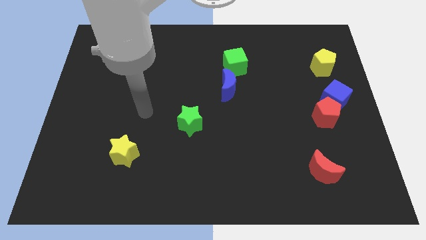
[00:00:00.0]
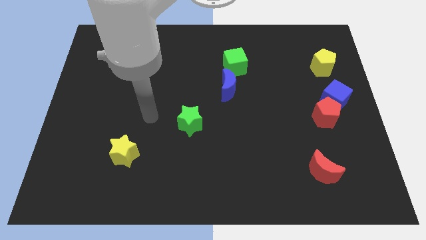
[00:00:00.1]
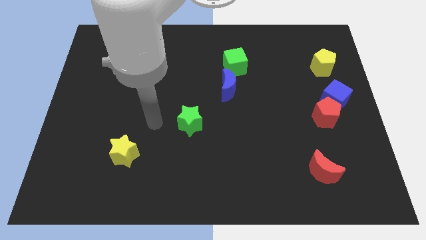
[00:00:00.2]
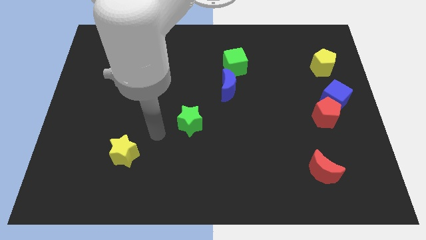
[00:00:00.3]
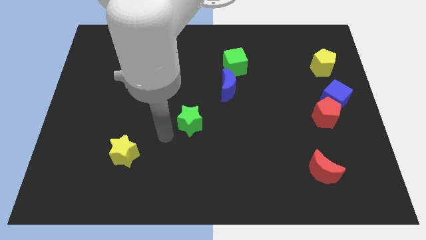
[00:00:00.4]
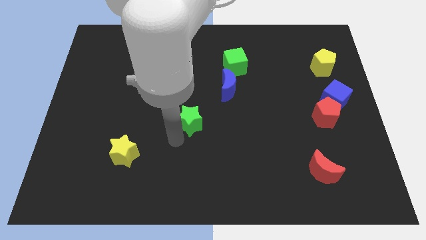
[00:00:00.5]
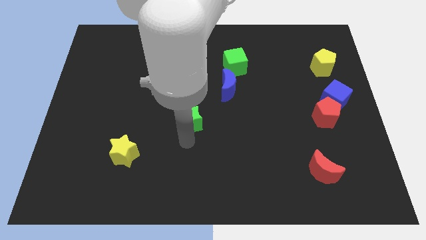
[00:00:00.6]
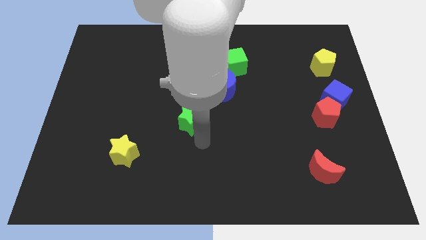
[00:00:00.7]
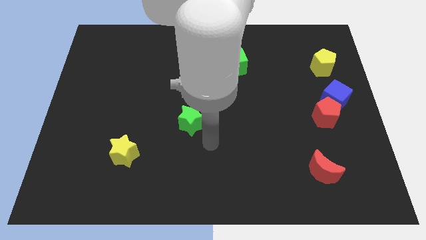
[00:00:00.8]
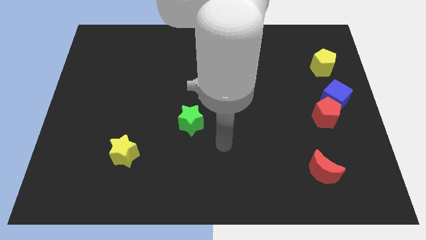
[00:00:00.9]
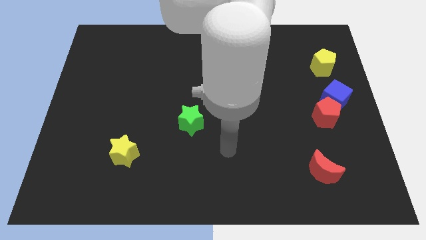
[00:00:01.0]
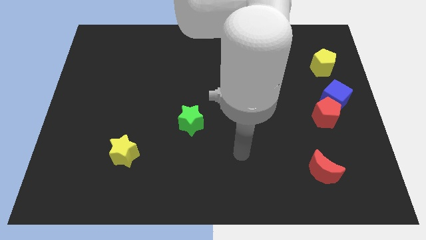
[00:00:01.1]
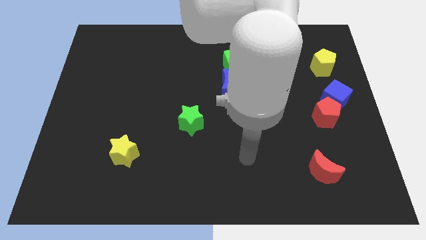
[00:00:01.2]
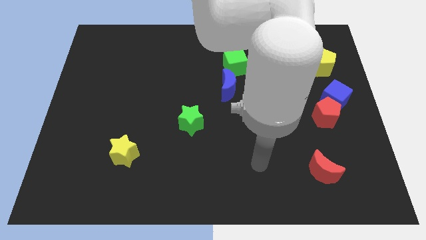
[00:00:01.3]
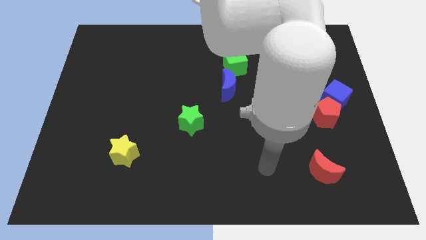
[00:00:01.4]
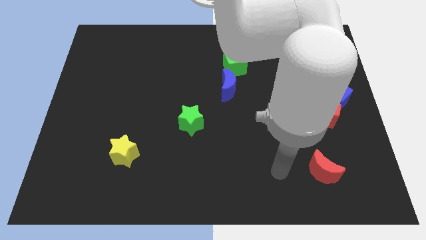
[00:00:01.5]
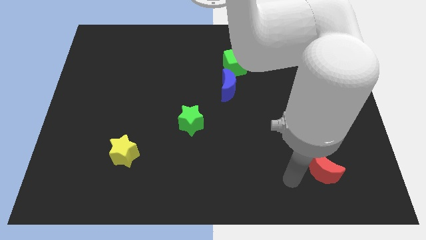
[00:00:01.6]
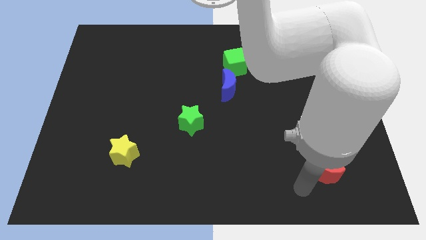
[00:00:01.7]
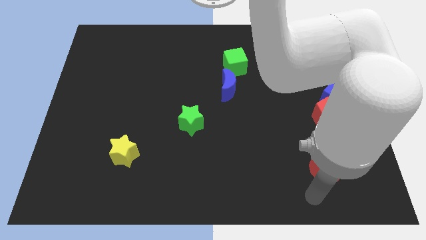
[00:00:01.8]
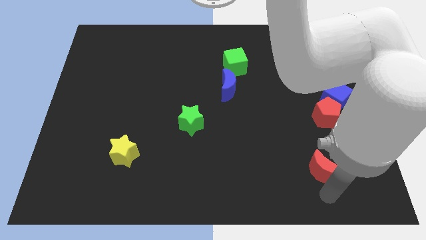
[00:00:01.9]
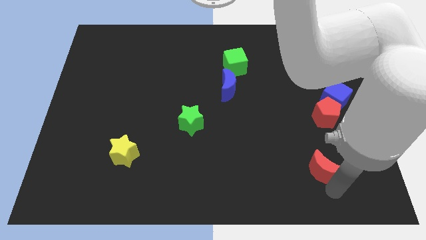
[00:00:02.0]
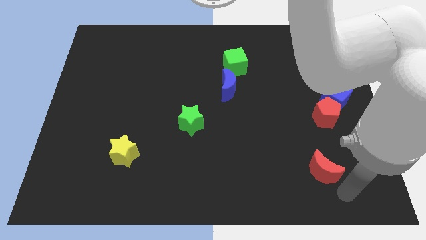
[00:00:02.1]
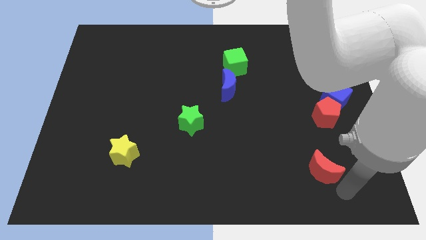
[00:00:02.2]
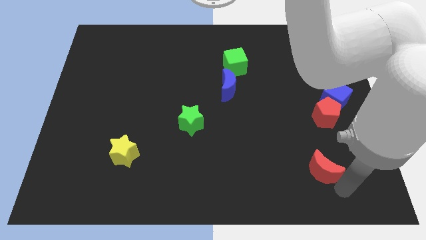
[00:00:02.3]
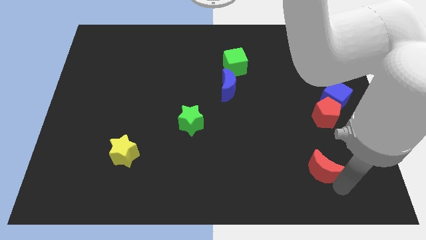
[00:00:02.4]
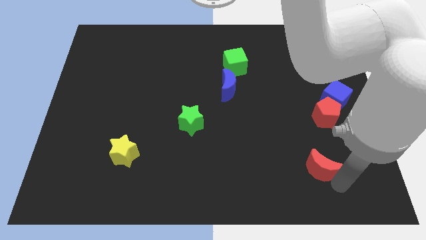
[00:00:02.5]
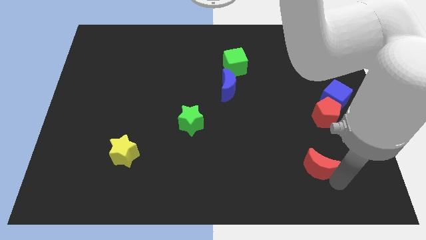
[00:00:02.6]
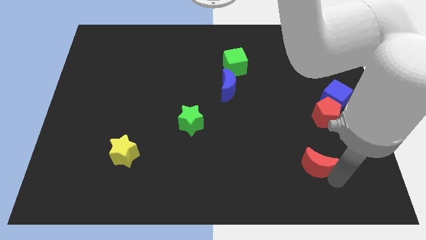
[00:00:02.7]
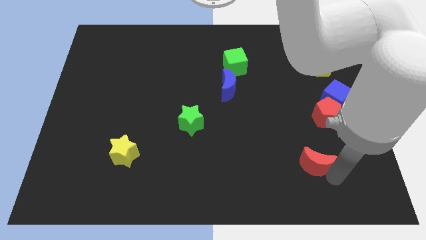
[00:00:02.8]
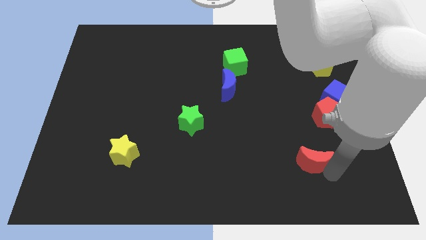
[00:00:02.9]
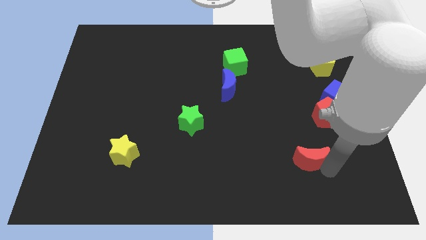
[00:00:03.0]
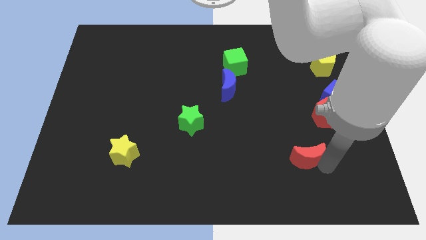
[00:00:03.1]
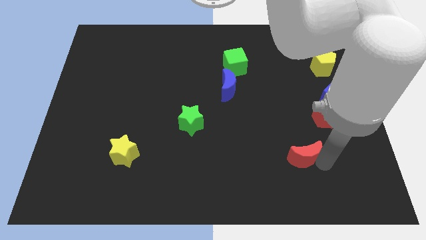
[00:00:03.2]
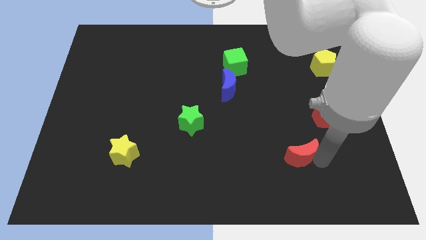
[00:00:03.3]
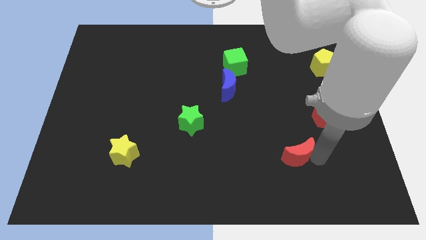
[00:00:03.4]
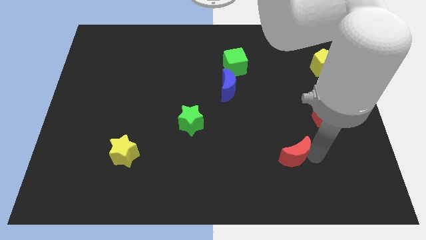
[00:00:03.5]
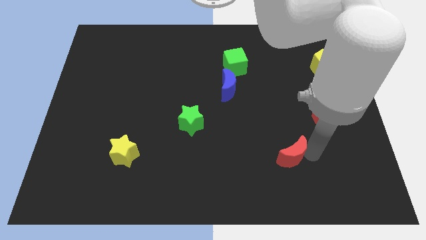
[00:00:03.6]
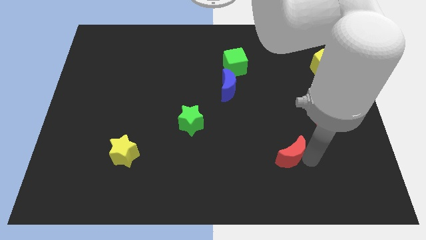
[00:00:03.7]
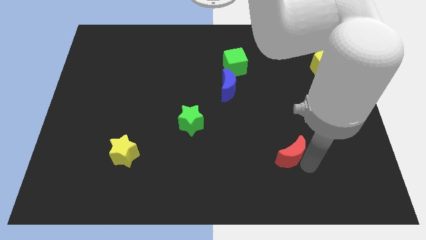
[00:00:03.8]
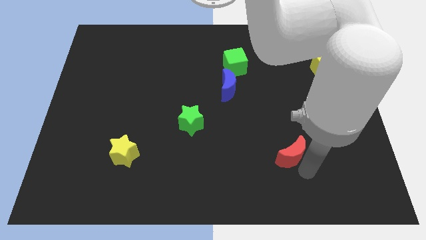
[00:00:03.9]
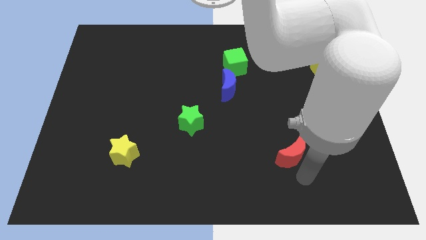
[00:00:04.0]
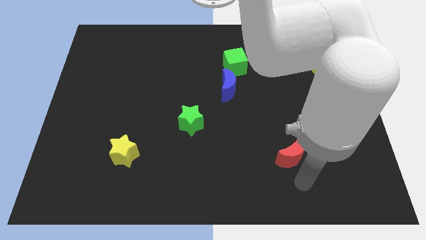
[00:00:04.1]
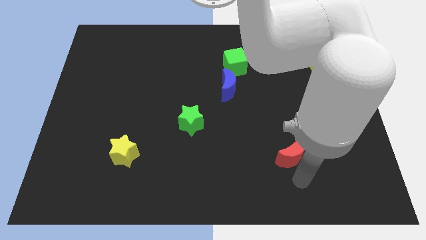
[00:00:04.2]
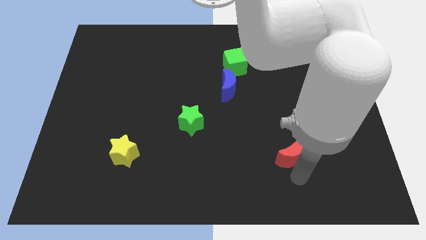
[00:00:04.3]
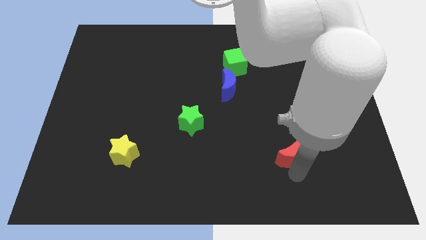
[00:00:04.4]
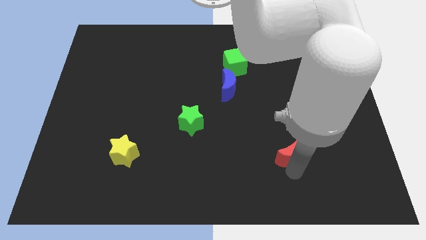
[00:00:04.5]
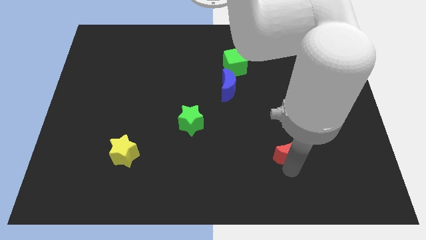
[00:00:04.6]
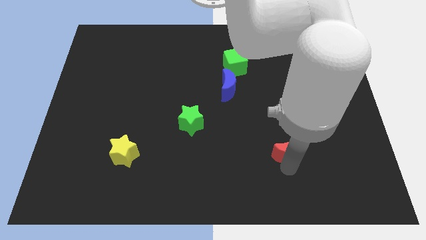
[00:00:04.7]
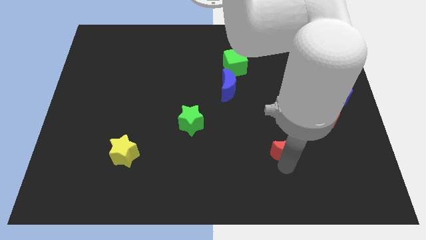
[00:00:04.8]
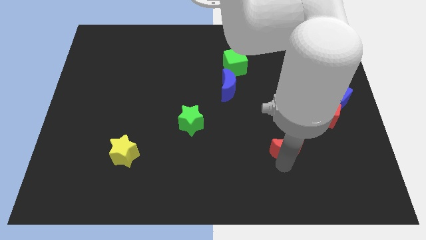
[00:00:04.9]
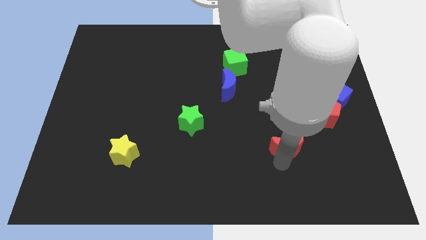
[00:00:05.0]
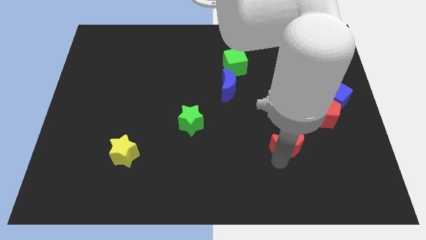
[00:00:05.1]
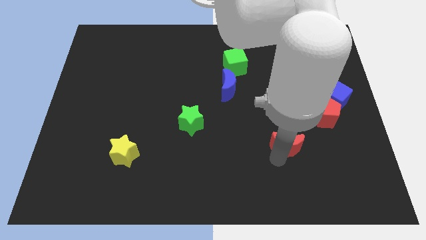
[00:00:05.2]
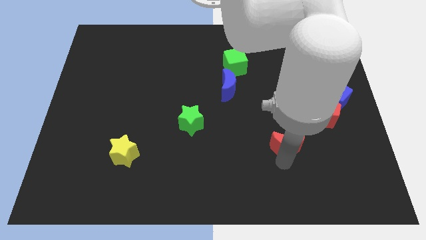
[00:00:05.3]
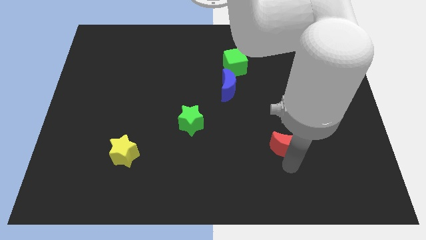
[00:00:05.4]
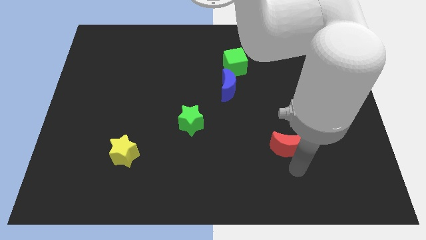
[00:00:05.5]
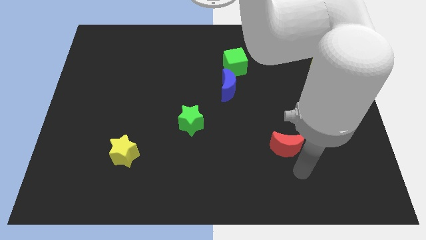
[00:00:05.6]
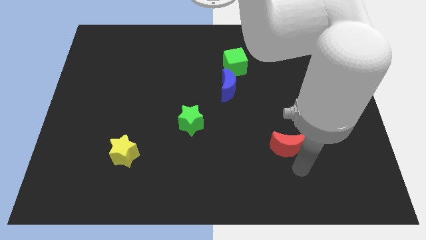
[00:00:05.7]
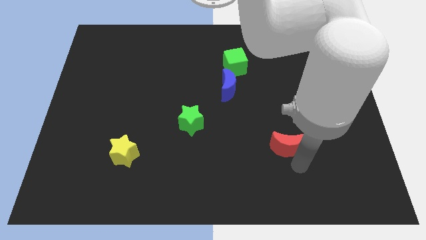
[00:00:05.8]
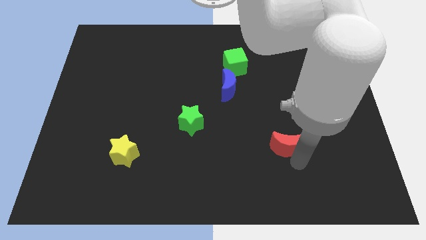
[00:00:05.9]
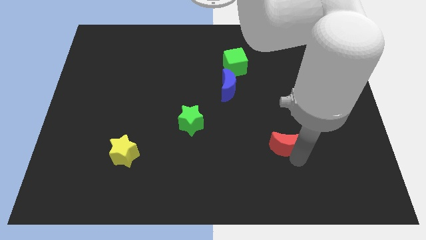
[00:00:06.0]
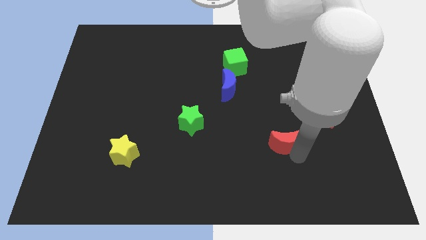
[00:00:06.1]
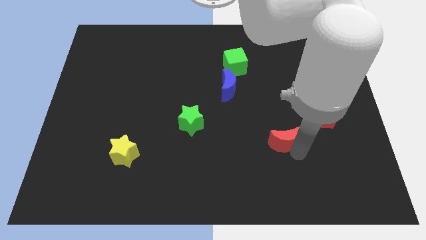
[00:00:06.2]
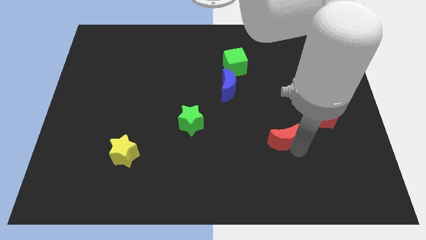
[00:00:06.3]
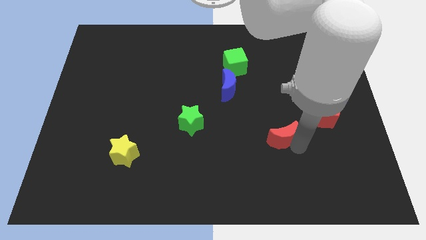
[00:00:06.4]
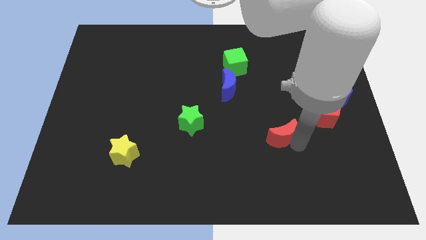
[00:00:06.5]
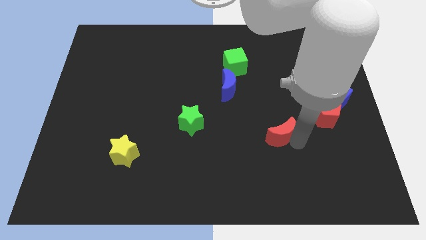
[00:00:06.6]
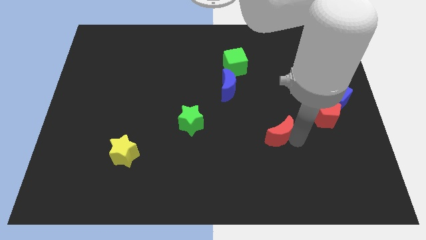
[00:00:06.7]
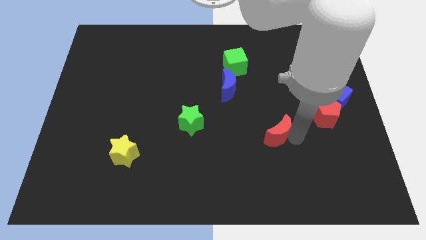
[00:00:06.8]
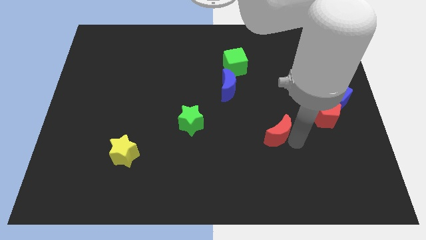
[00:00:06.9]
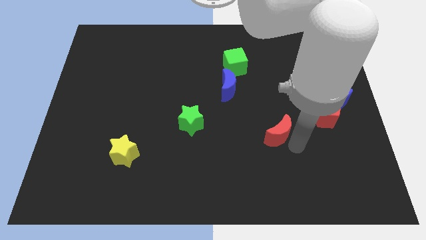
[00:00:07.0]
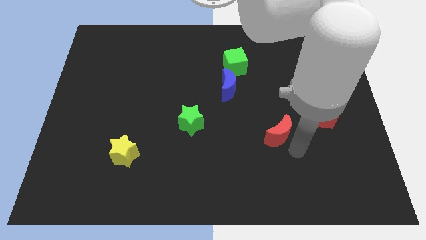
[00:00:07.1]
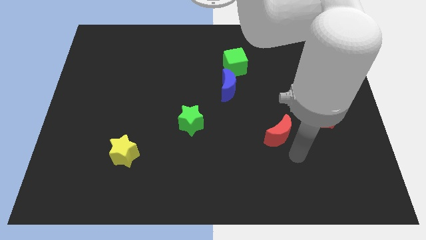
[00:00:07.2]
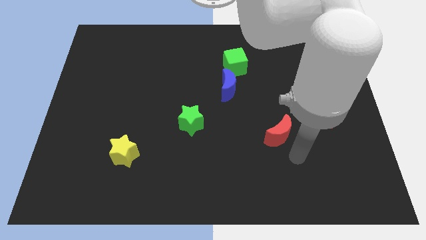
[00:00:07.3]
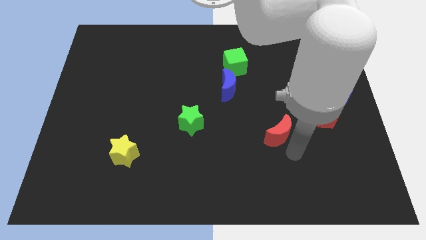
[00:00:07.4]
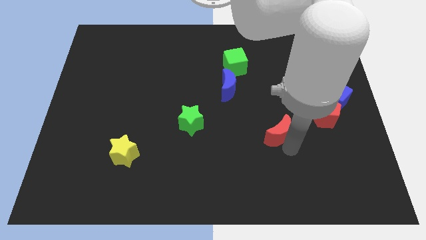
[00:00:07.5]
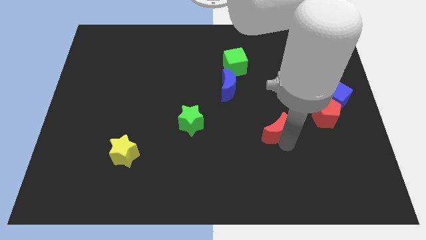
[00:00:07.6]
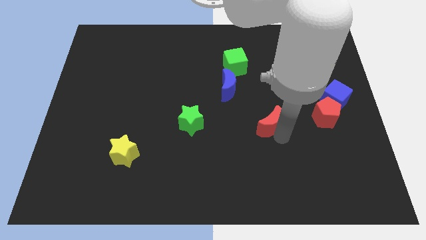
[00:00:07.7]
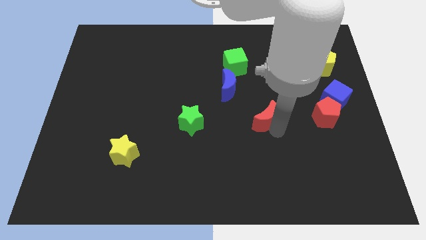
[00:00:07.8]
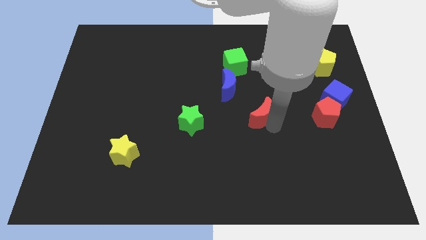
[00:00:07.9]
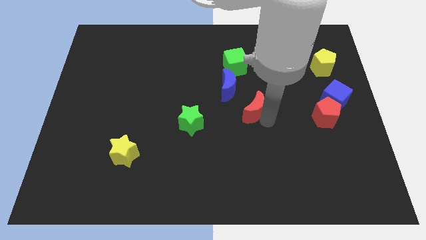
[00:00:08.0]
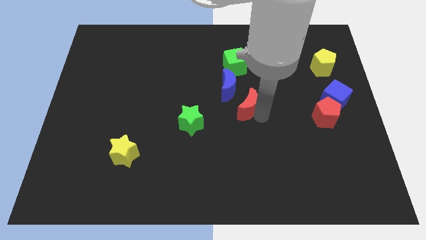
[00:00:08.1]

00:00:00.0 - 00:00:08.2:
put the red moon below the green cube
